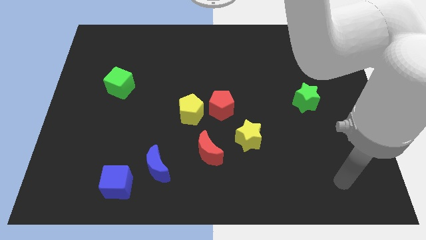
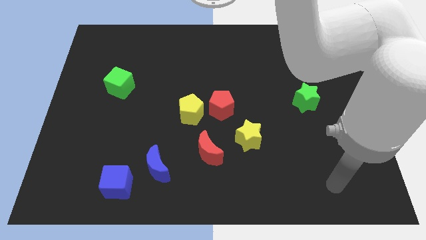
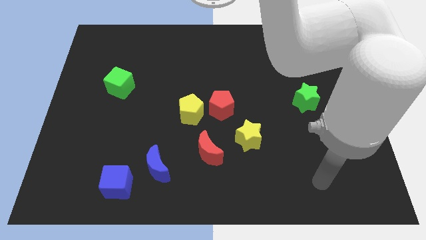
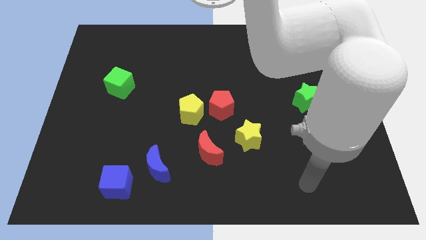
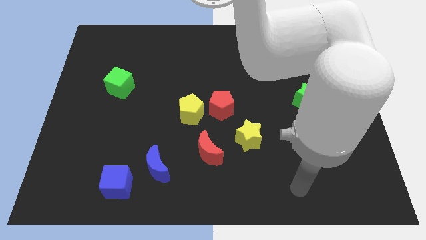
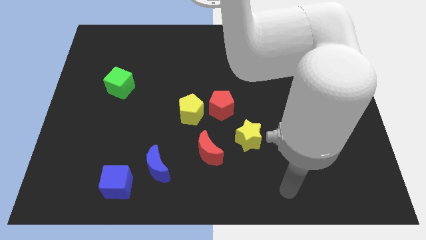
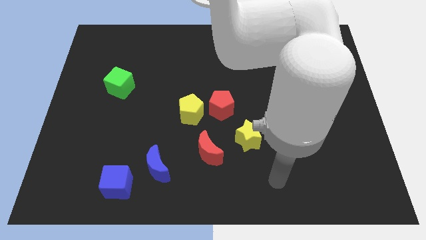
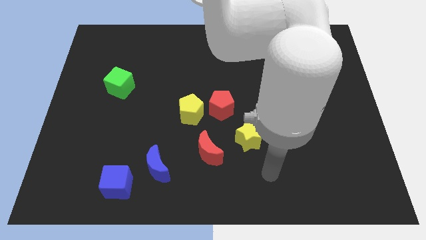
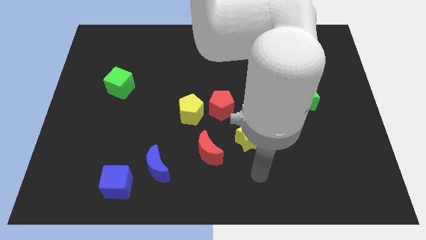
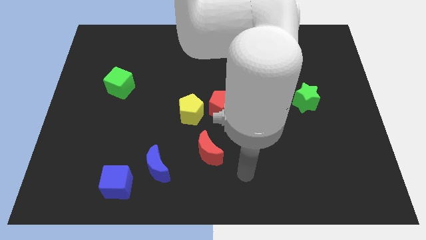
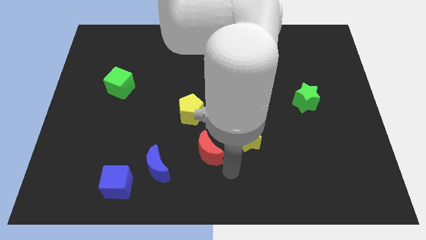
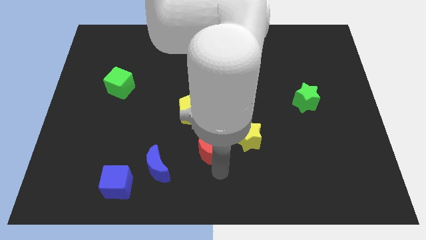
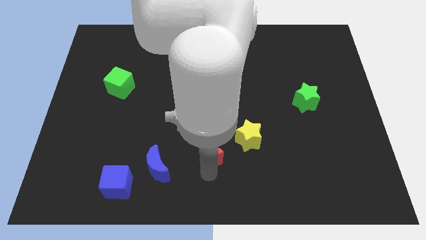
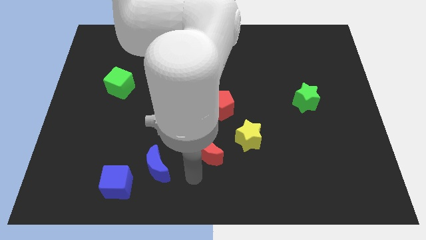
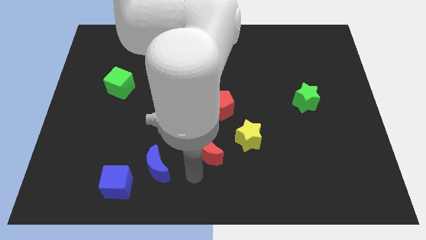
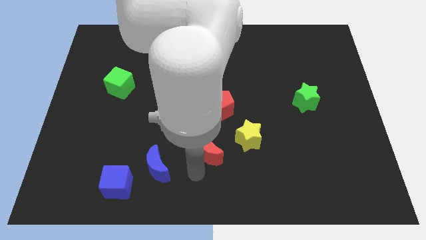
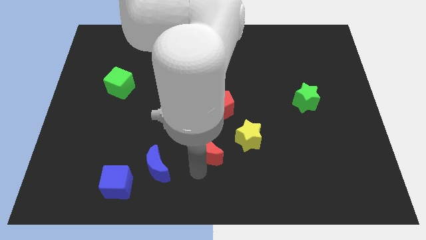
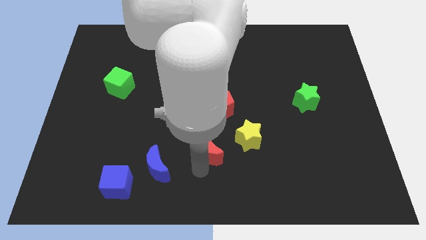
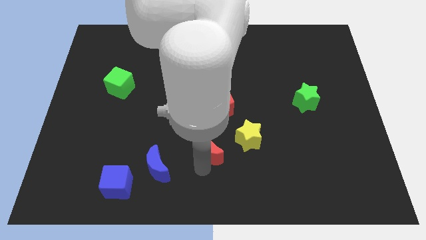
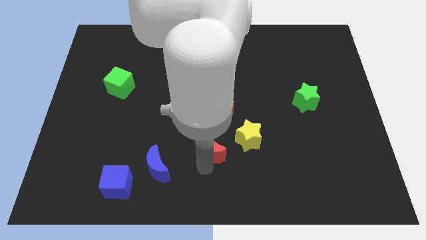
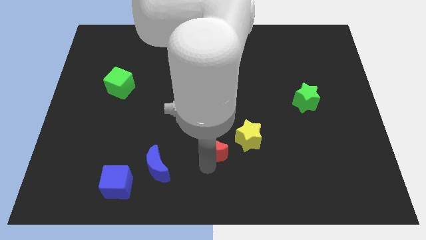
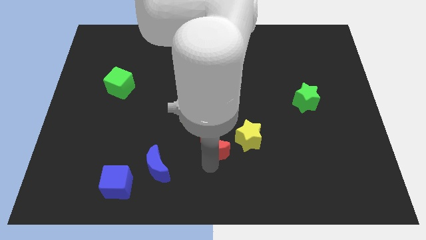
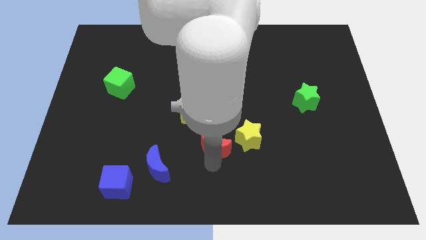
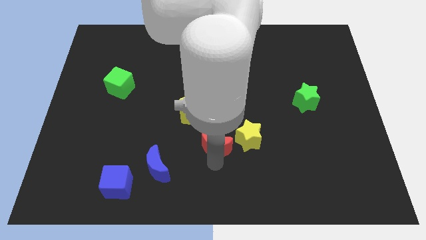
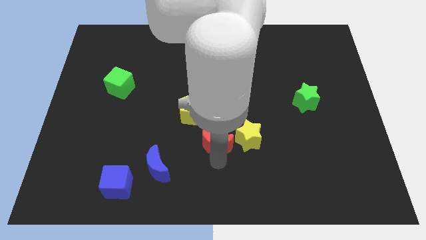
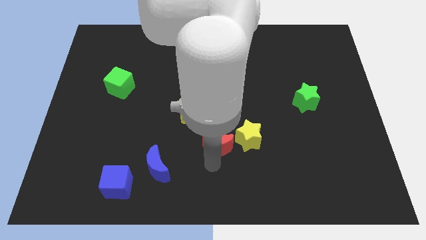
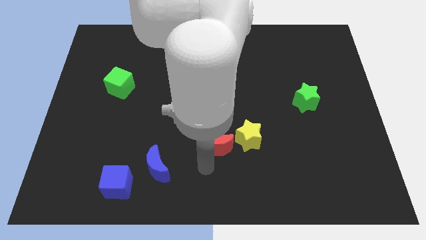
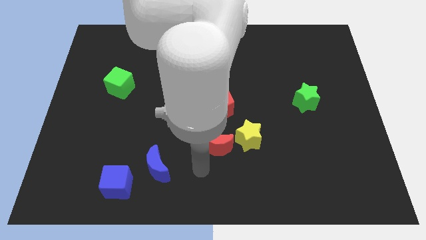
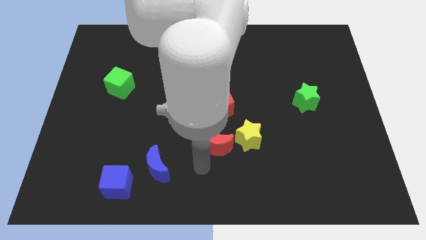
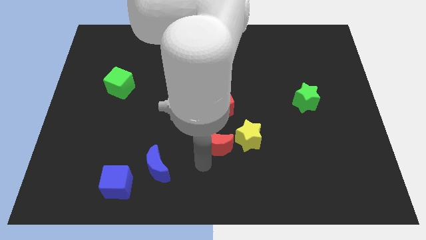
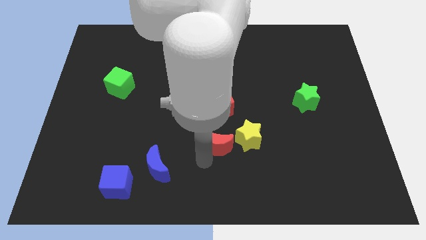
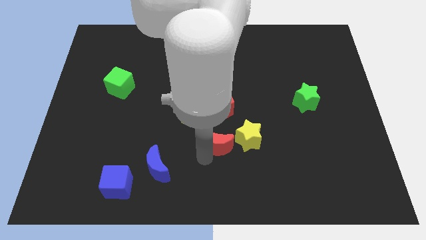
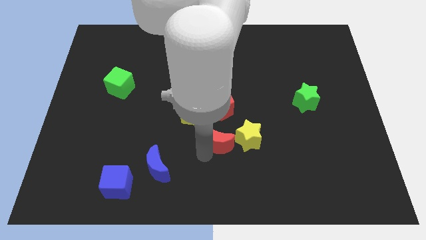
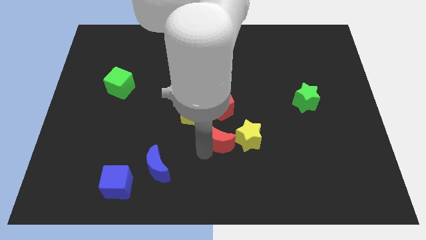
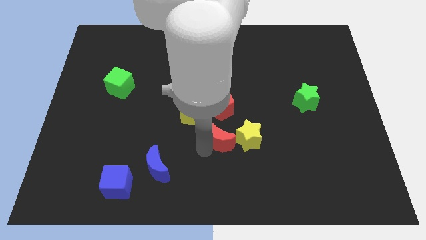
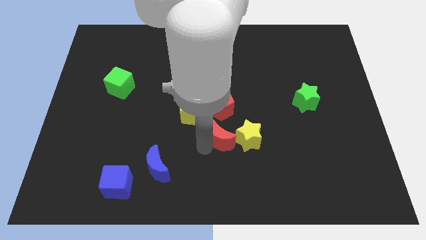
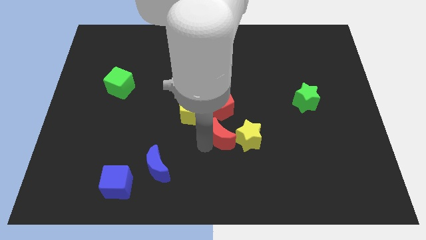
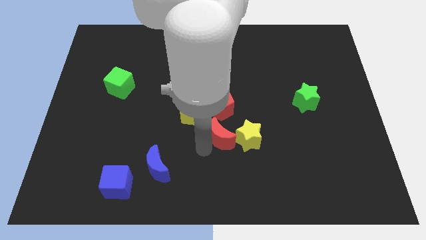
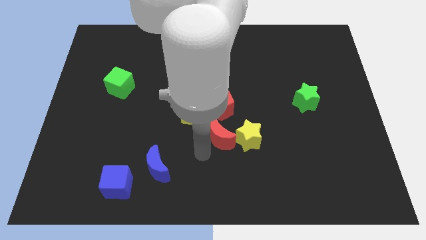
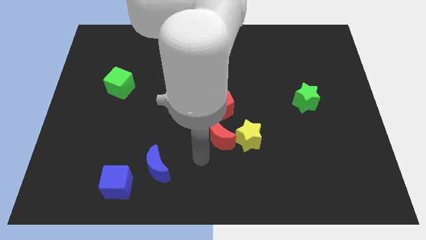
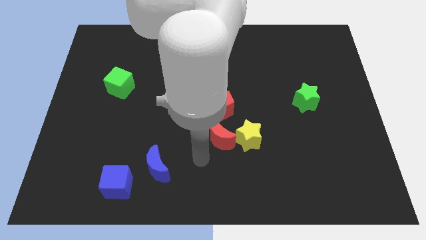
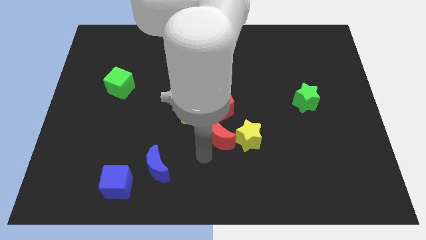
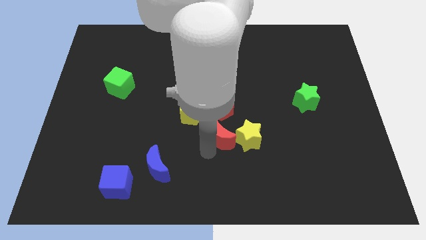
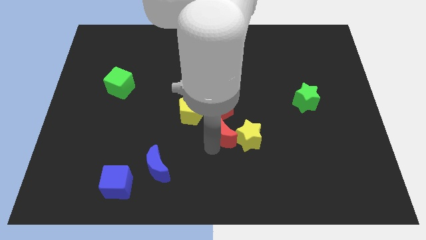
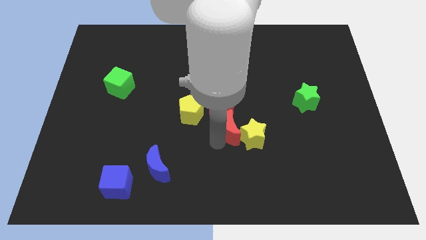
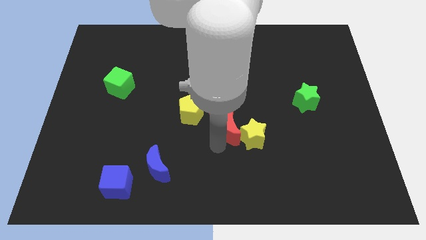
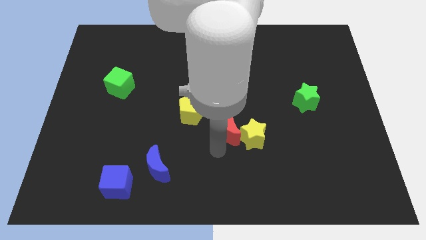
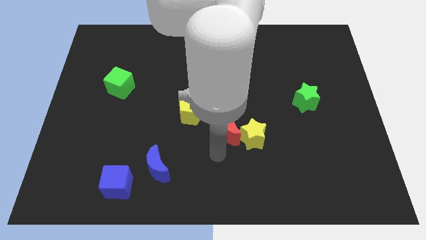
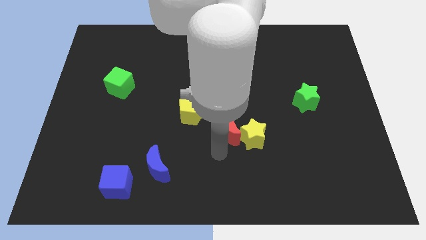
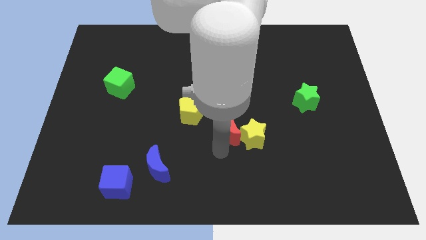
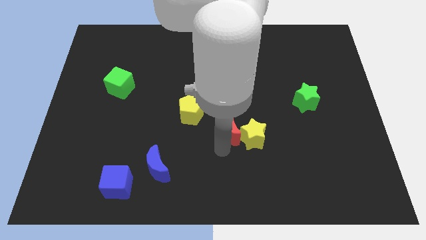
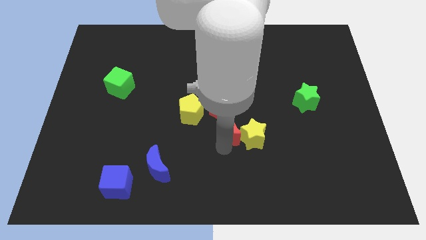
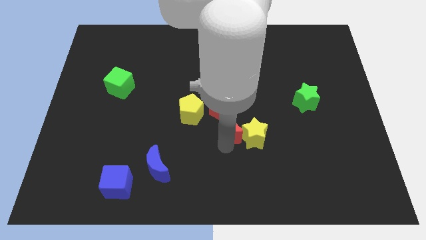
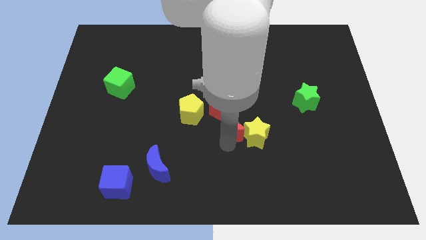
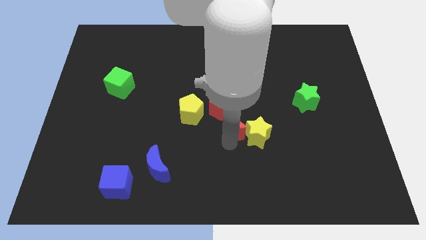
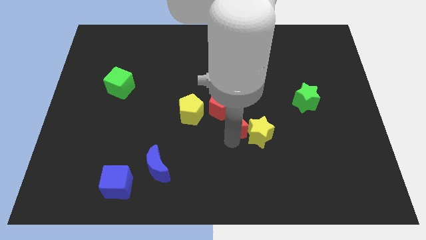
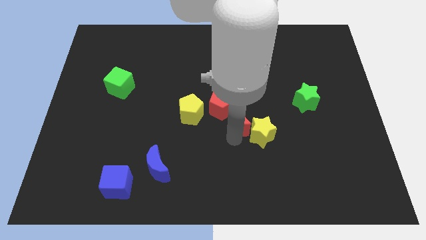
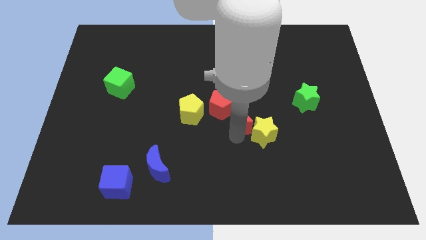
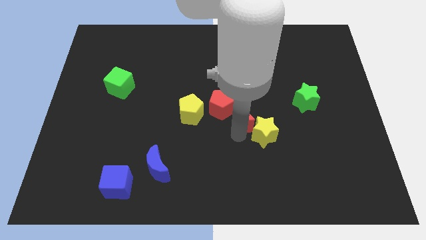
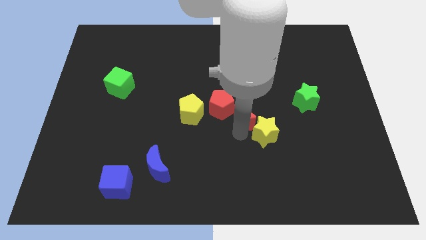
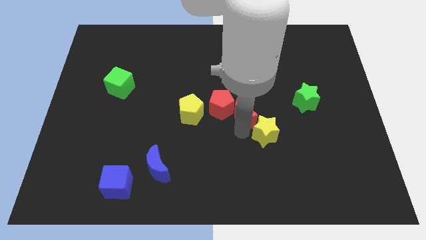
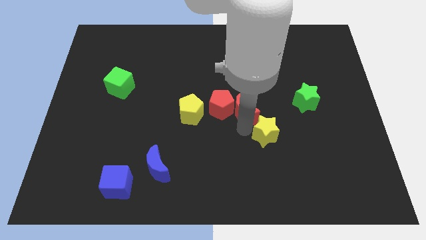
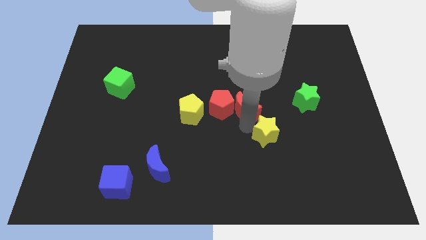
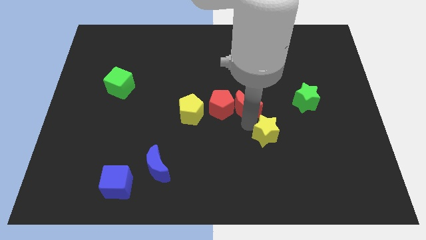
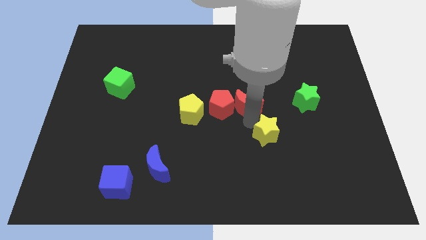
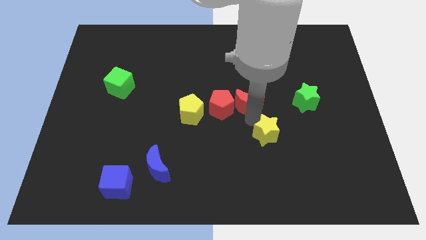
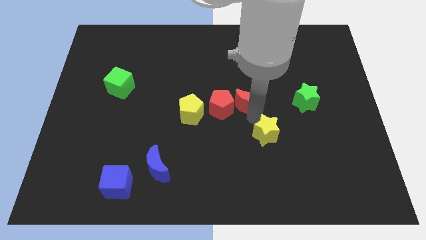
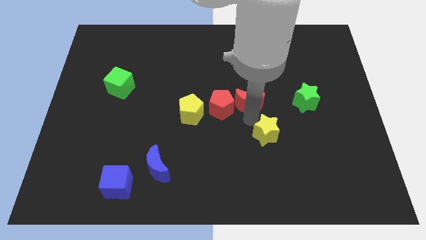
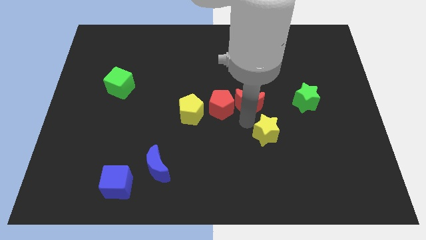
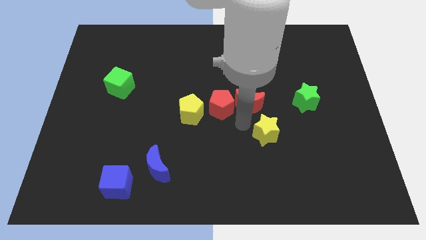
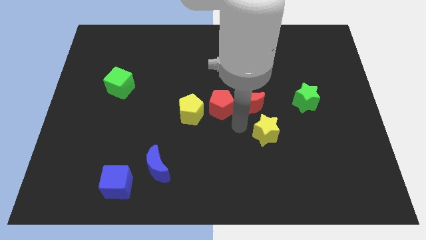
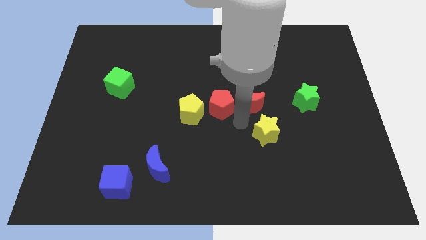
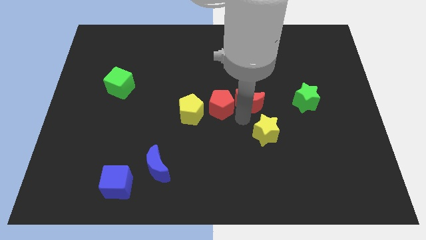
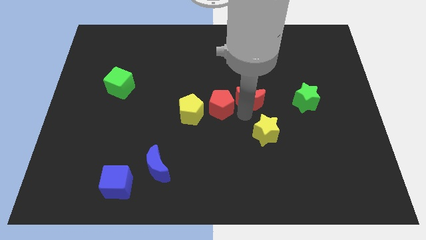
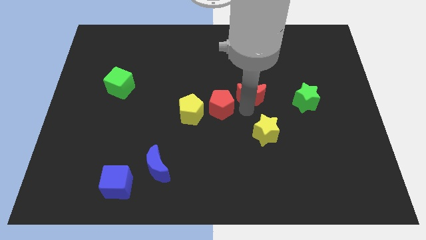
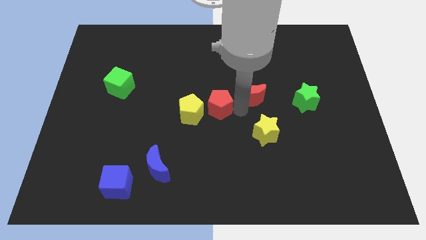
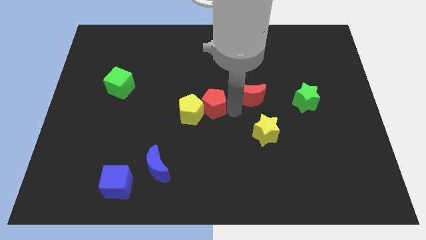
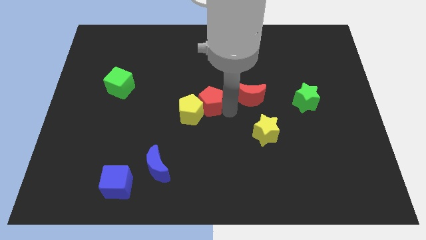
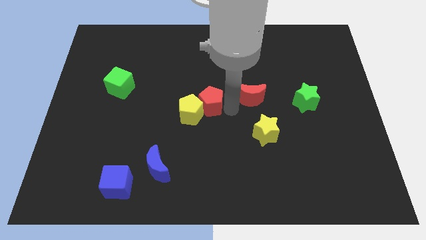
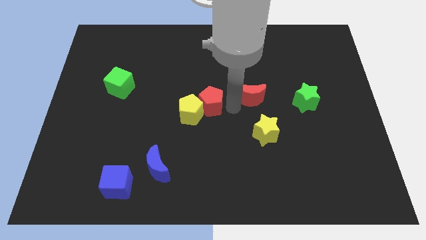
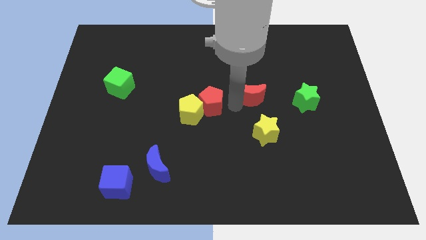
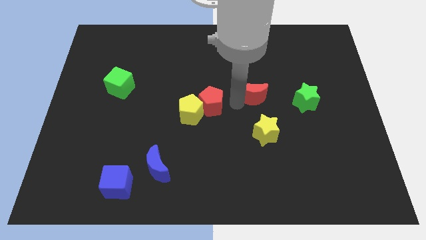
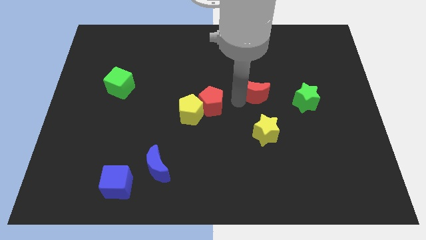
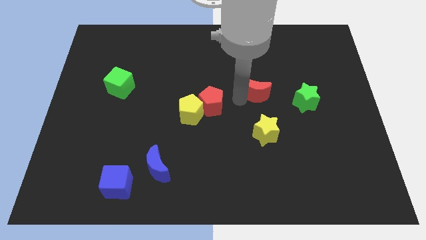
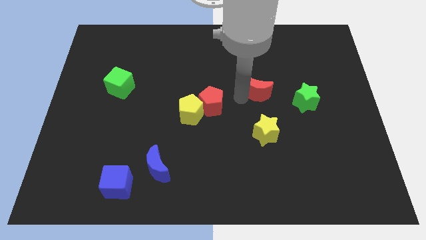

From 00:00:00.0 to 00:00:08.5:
slide the red moon up and right diagonally
